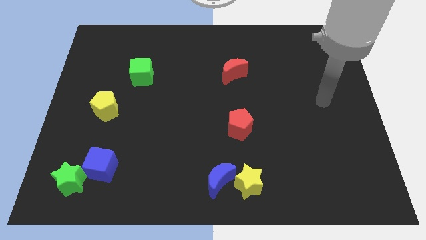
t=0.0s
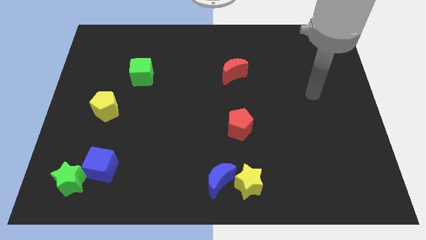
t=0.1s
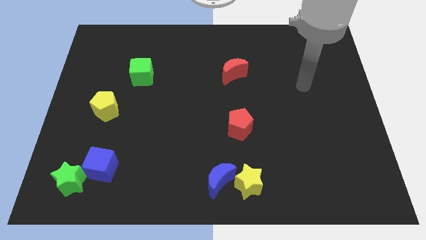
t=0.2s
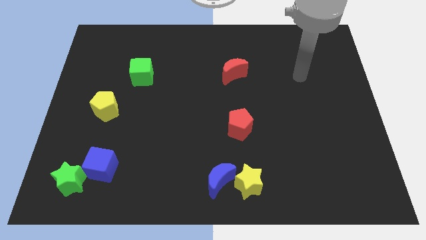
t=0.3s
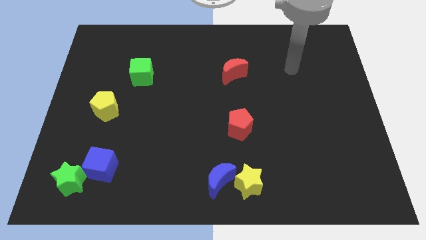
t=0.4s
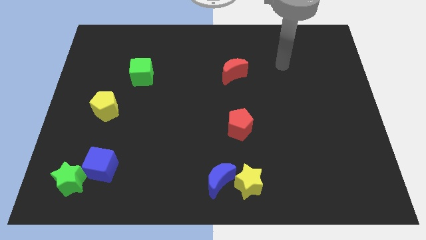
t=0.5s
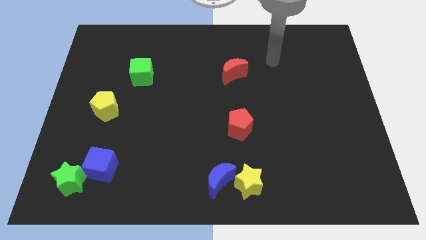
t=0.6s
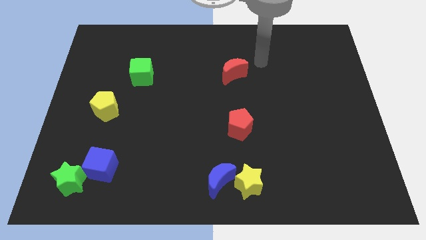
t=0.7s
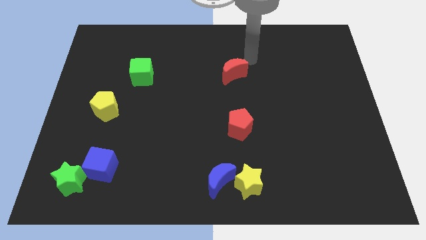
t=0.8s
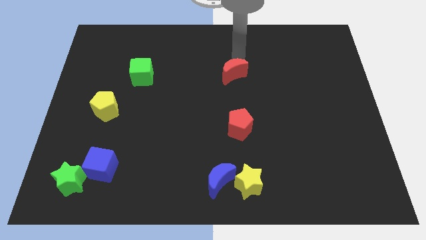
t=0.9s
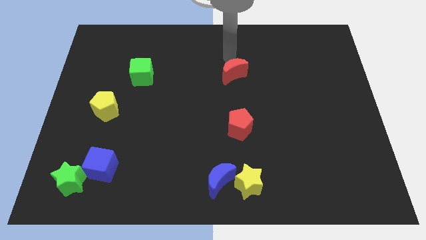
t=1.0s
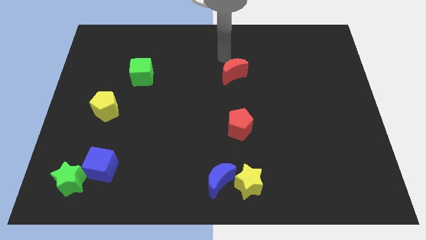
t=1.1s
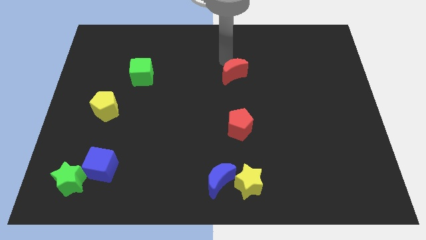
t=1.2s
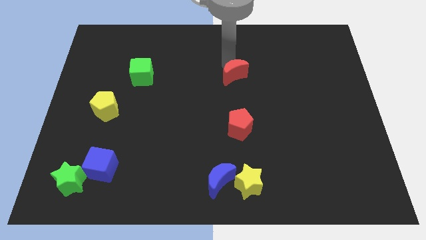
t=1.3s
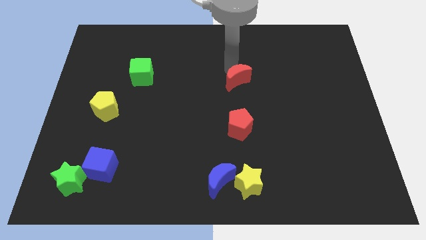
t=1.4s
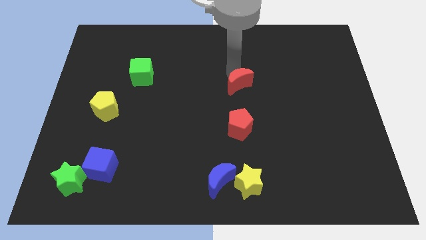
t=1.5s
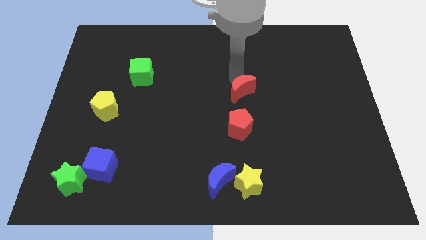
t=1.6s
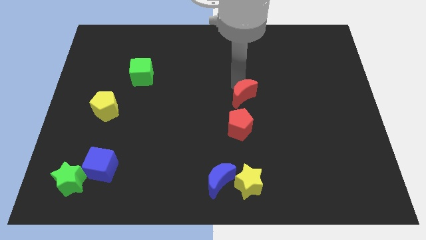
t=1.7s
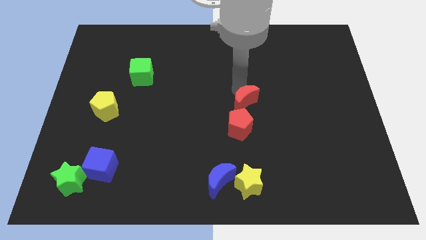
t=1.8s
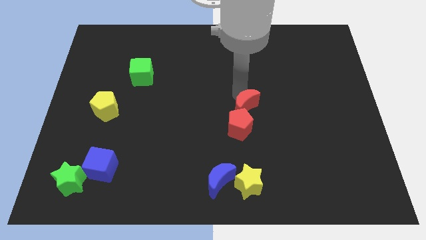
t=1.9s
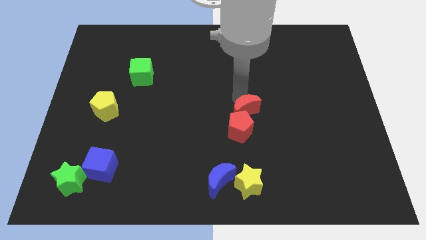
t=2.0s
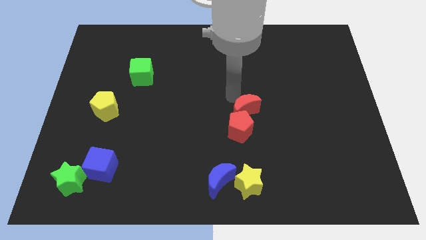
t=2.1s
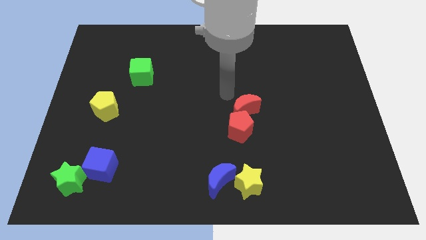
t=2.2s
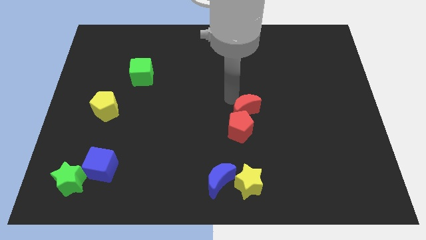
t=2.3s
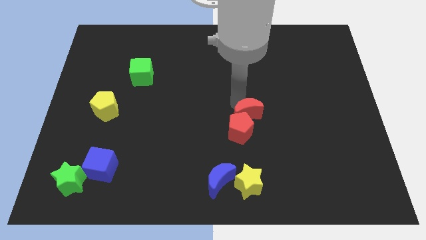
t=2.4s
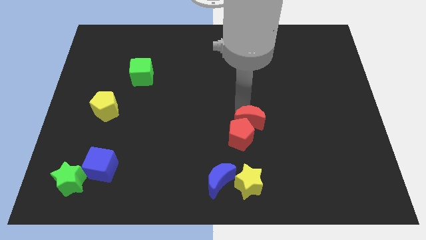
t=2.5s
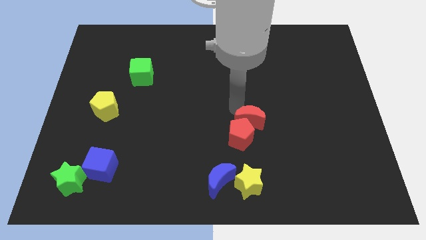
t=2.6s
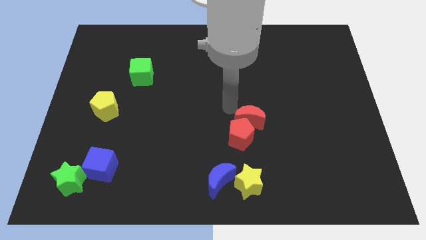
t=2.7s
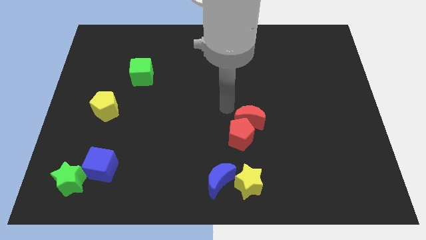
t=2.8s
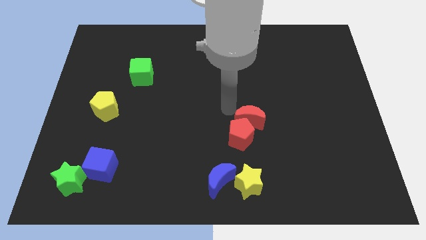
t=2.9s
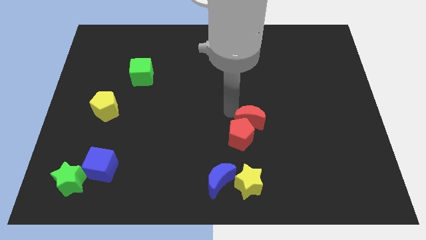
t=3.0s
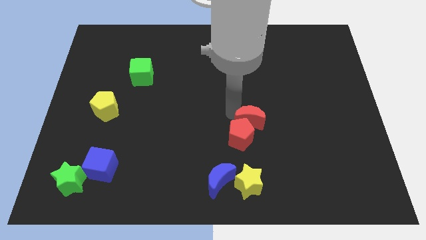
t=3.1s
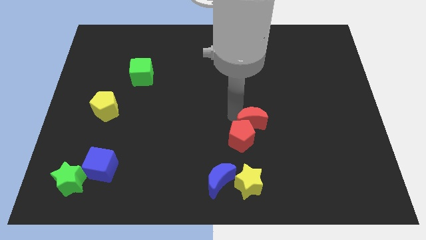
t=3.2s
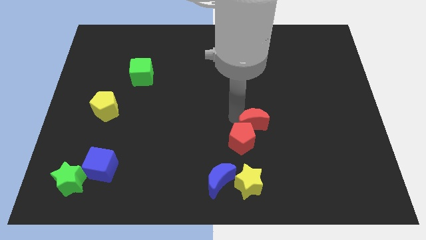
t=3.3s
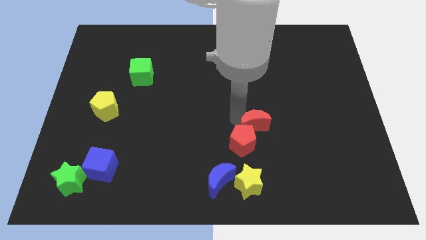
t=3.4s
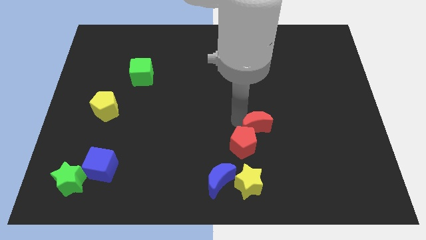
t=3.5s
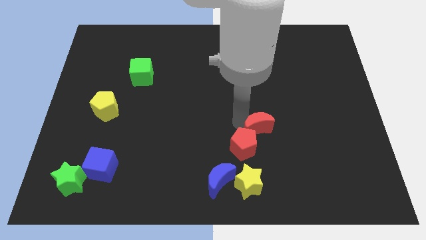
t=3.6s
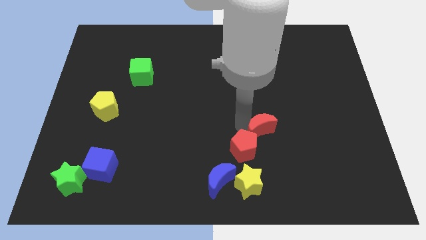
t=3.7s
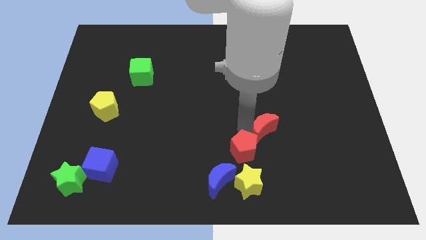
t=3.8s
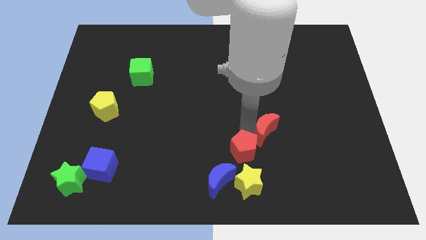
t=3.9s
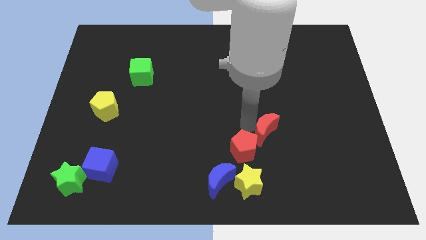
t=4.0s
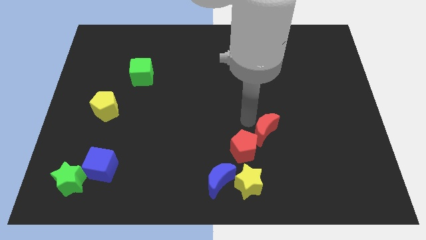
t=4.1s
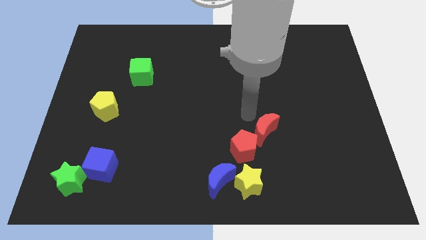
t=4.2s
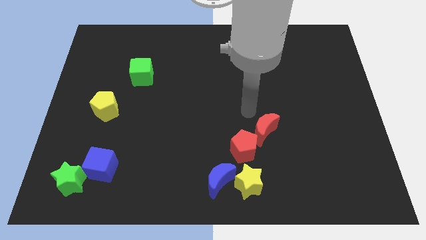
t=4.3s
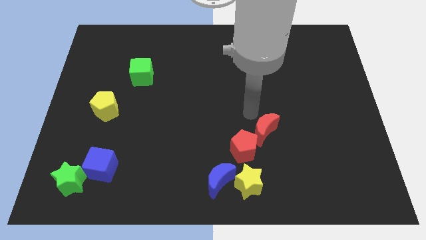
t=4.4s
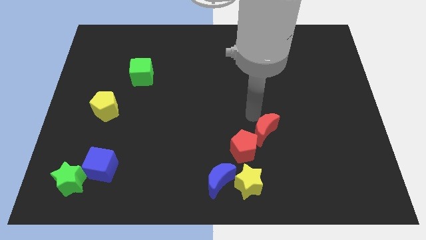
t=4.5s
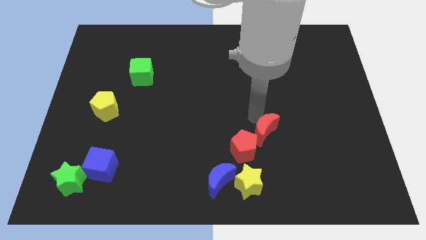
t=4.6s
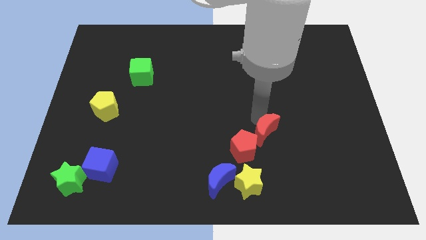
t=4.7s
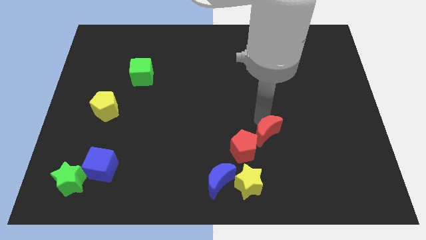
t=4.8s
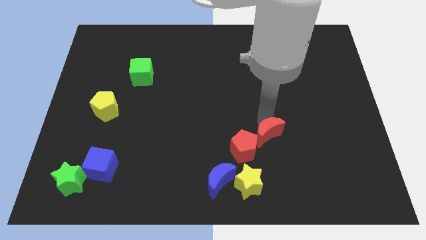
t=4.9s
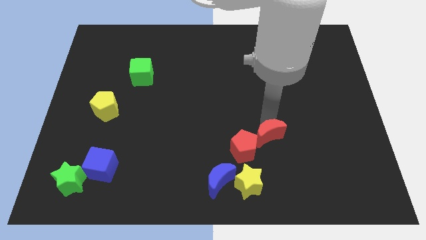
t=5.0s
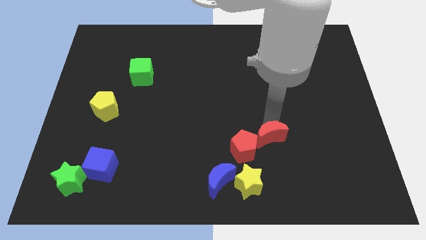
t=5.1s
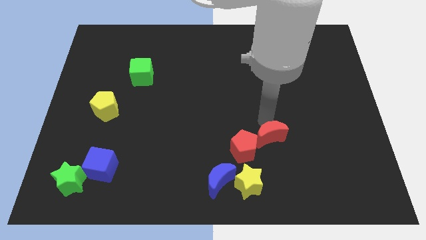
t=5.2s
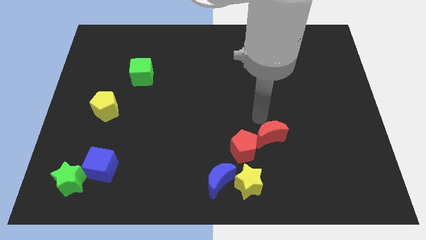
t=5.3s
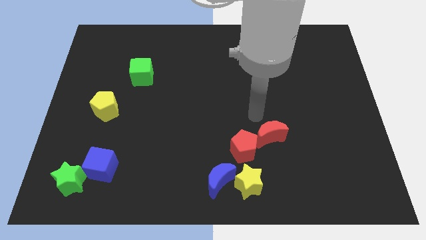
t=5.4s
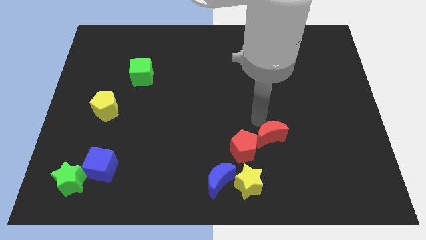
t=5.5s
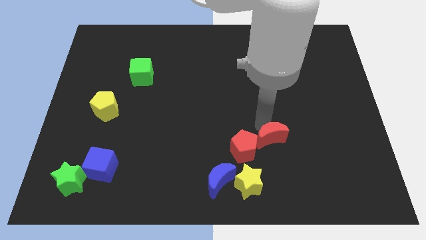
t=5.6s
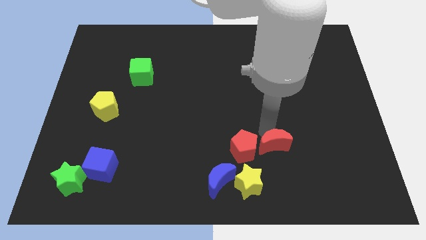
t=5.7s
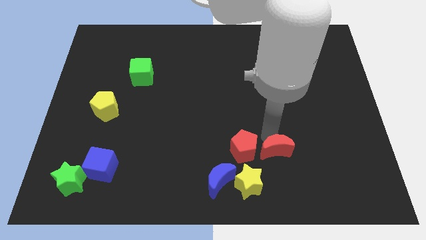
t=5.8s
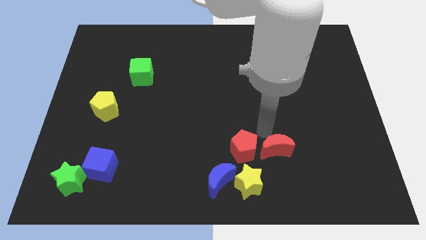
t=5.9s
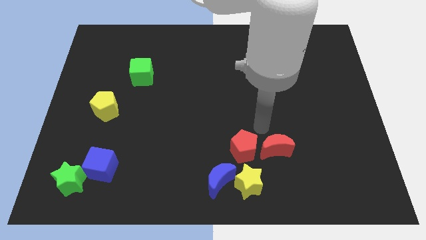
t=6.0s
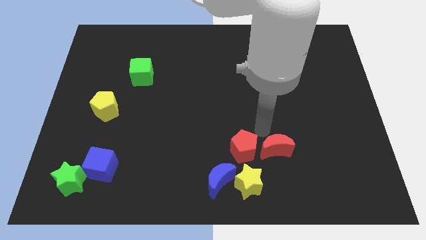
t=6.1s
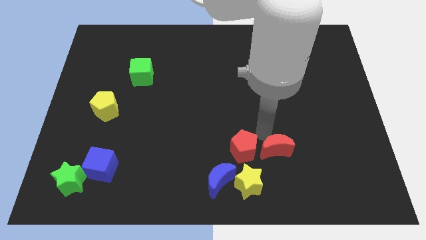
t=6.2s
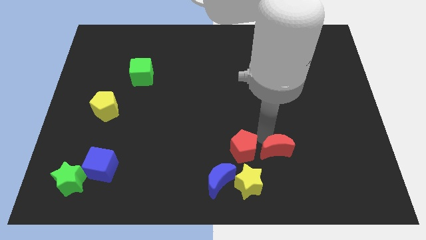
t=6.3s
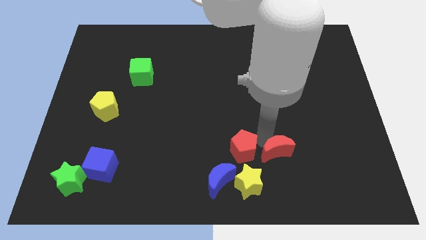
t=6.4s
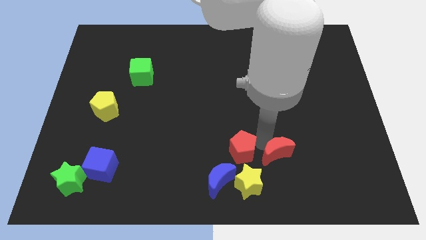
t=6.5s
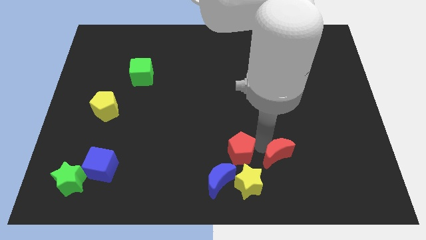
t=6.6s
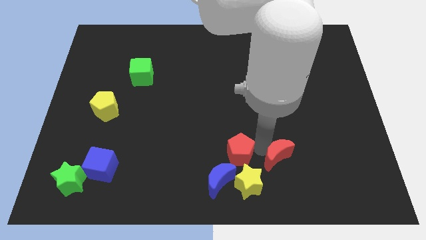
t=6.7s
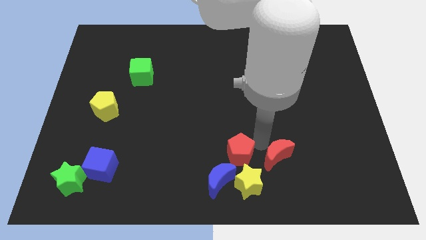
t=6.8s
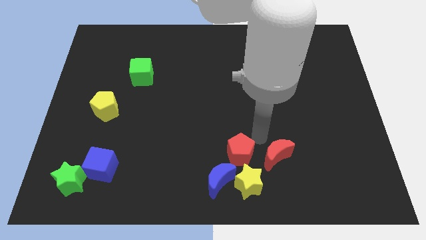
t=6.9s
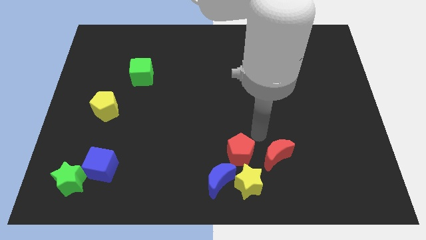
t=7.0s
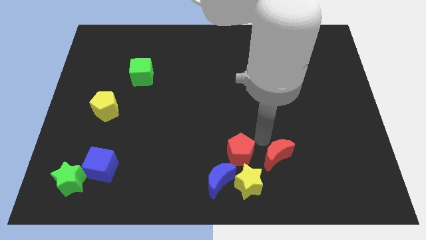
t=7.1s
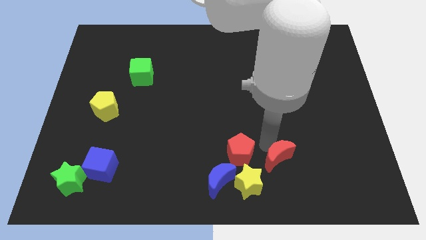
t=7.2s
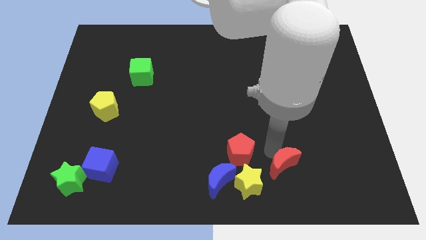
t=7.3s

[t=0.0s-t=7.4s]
slide the red moon just right of the yellow star
